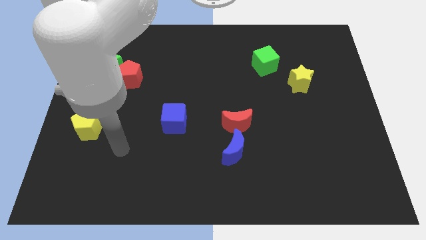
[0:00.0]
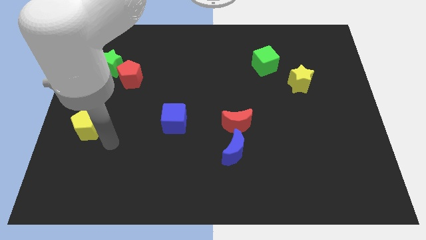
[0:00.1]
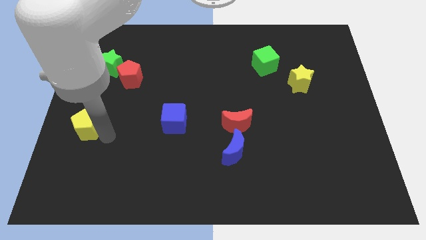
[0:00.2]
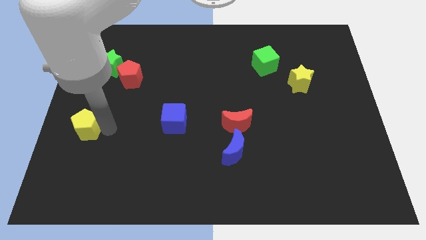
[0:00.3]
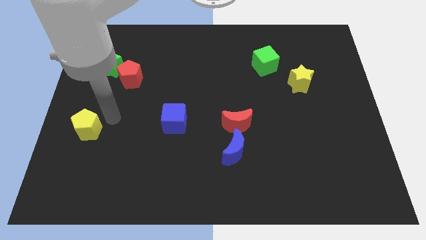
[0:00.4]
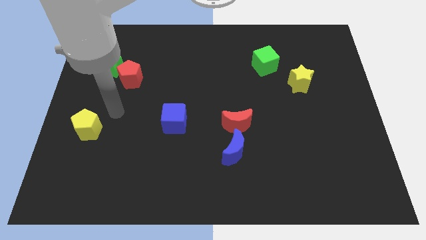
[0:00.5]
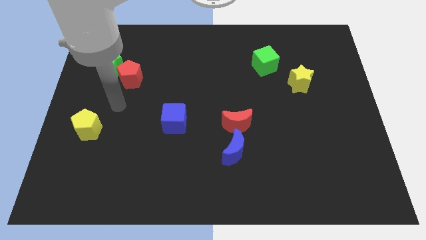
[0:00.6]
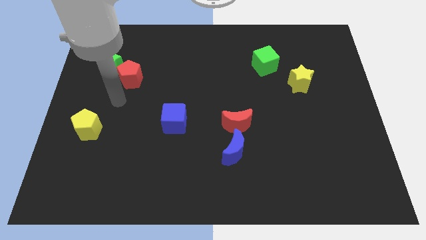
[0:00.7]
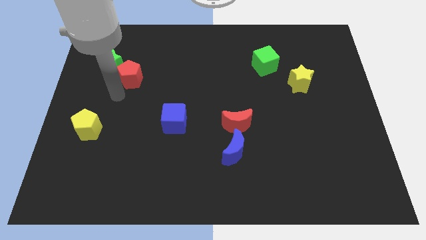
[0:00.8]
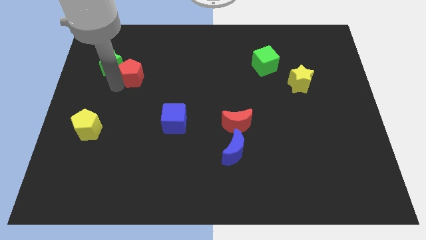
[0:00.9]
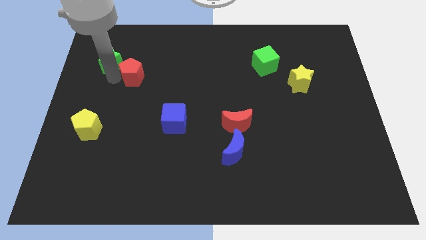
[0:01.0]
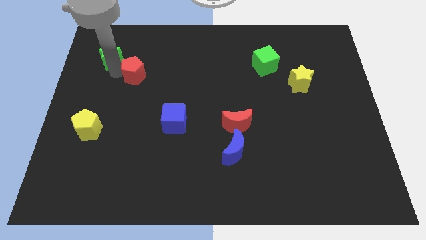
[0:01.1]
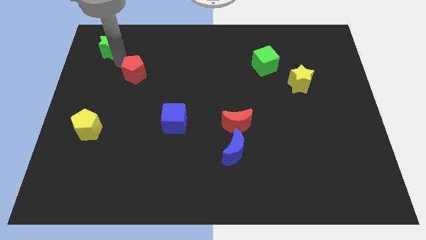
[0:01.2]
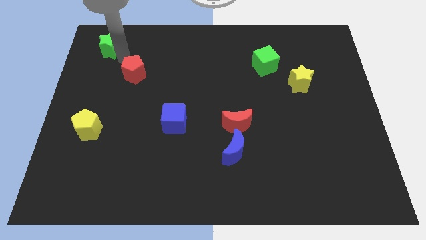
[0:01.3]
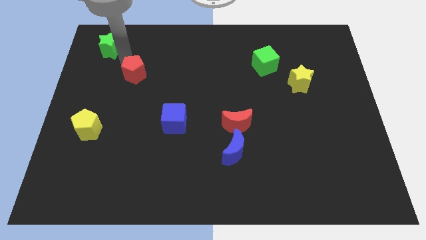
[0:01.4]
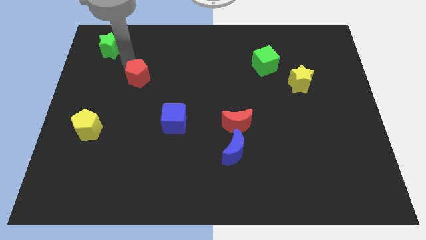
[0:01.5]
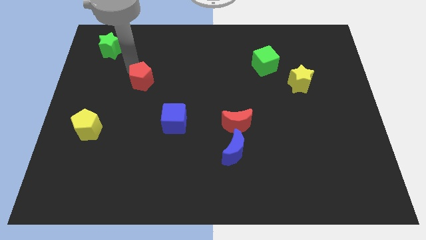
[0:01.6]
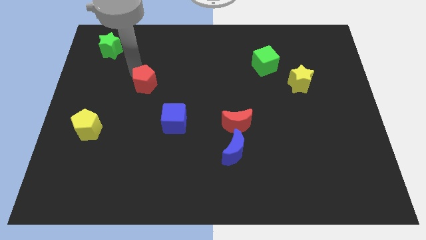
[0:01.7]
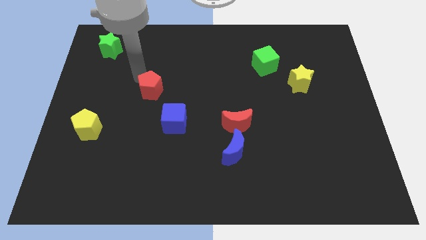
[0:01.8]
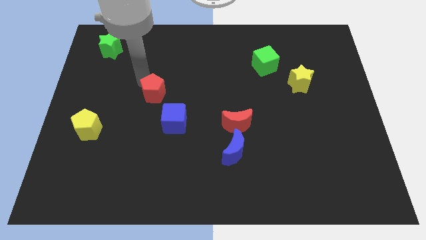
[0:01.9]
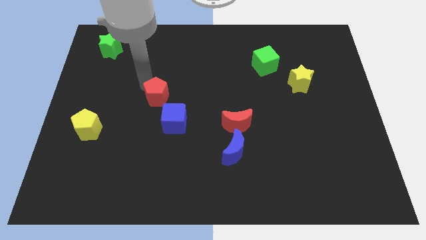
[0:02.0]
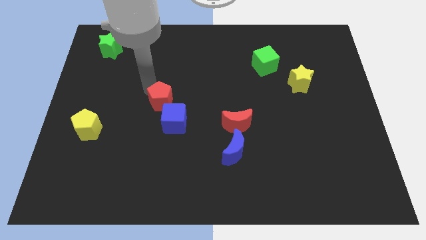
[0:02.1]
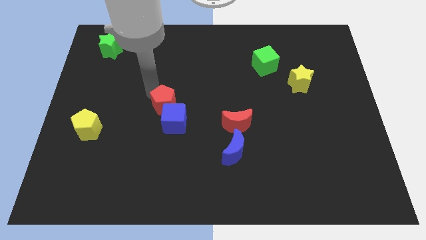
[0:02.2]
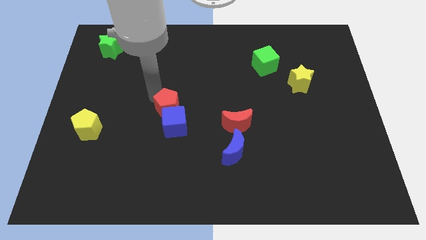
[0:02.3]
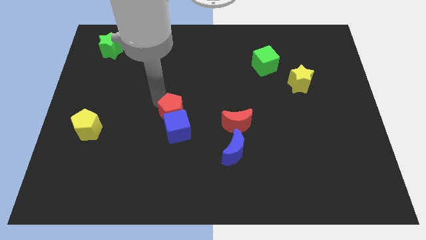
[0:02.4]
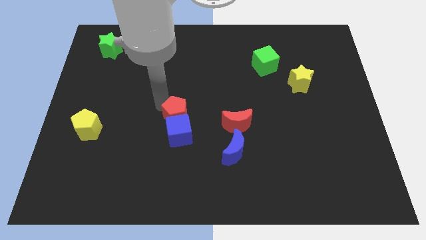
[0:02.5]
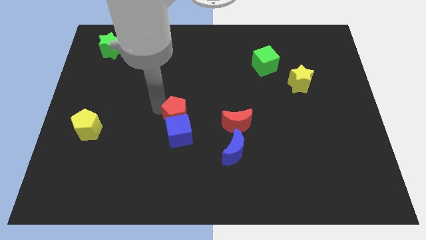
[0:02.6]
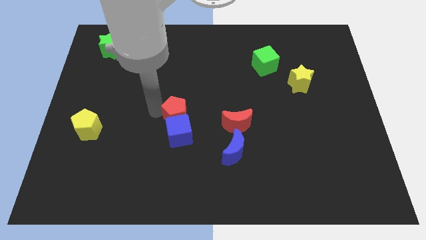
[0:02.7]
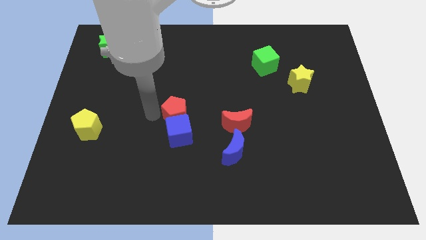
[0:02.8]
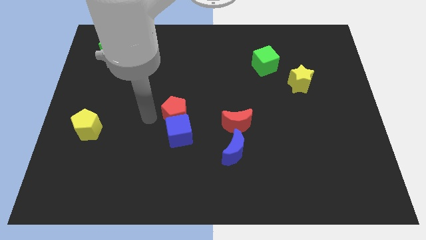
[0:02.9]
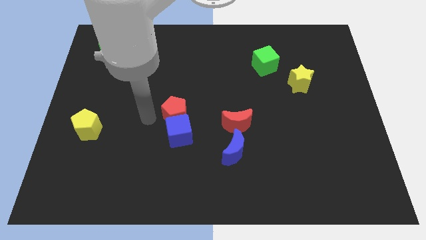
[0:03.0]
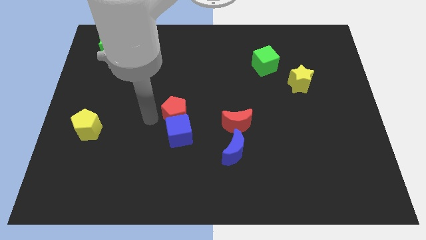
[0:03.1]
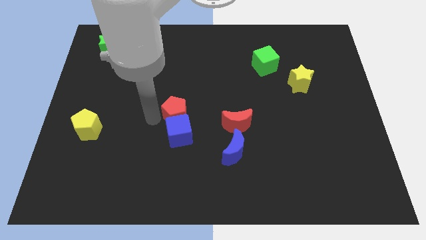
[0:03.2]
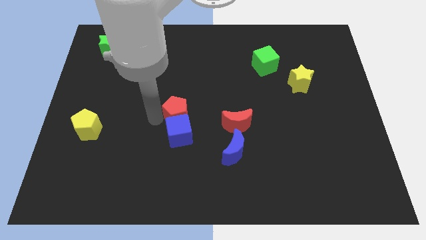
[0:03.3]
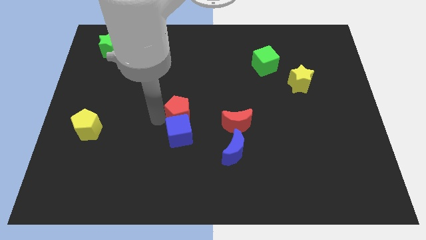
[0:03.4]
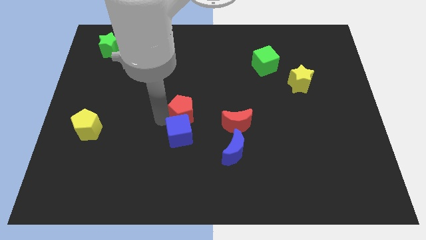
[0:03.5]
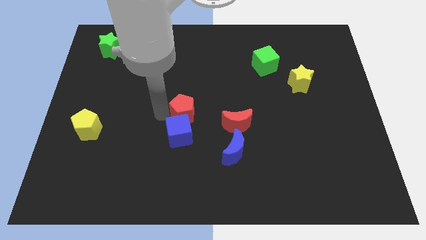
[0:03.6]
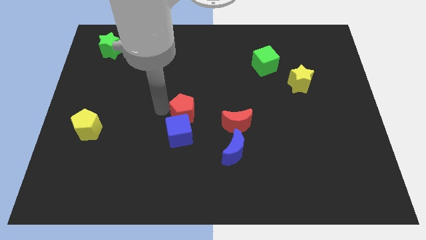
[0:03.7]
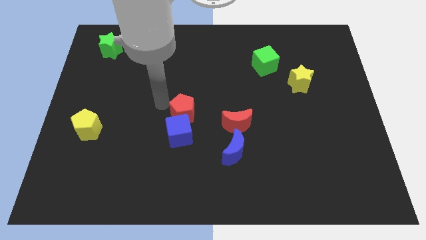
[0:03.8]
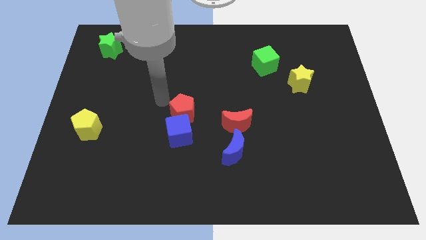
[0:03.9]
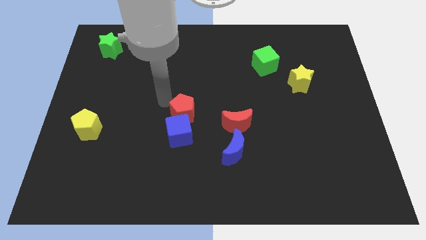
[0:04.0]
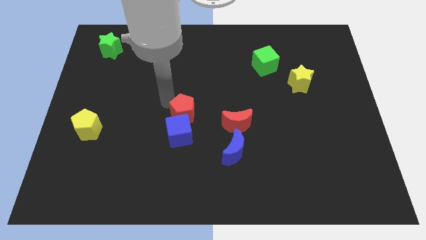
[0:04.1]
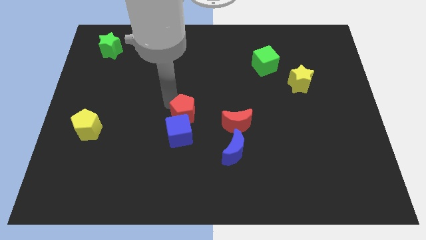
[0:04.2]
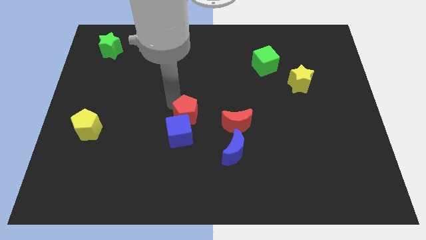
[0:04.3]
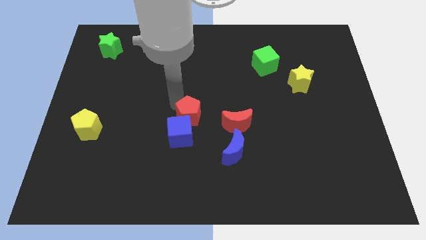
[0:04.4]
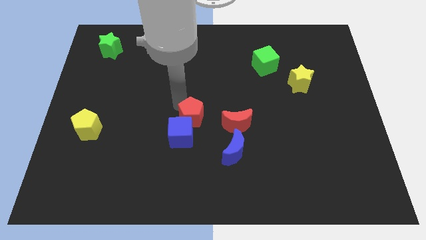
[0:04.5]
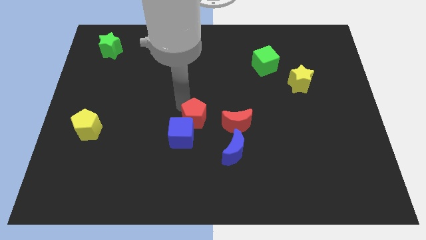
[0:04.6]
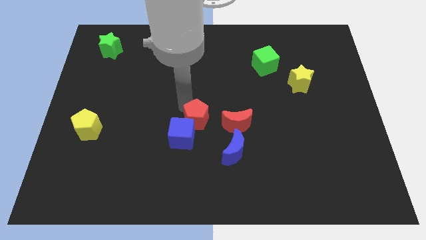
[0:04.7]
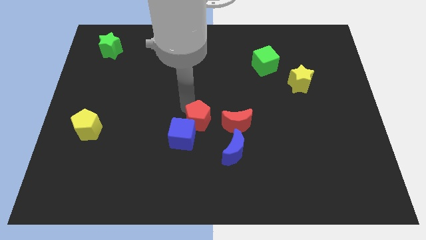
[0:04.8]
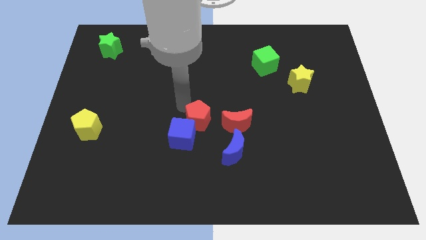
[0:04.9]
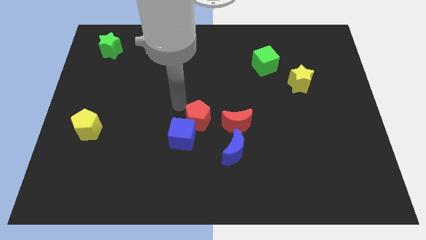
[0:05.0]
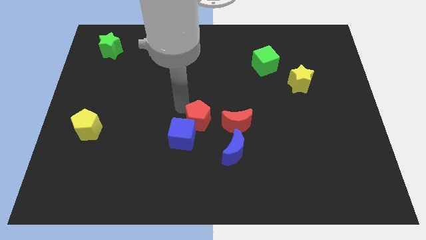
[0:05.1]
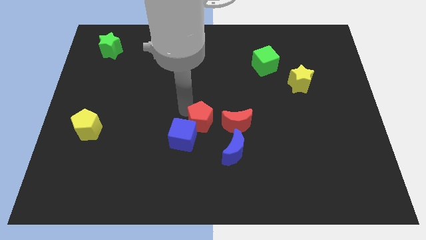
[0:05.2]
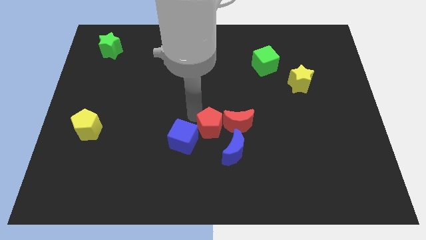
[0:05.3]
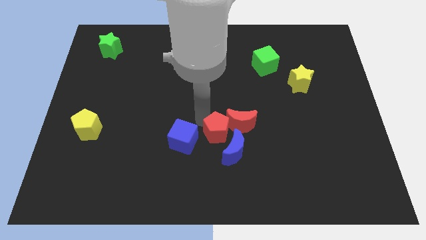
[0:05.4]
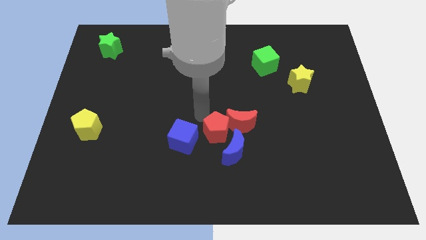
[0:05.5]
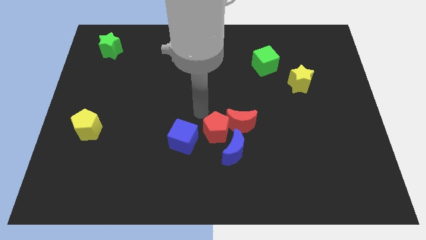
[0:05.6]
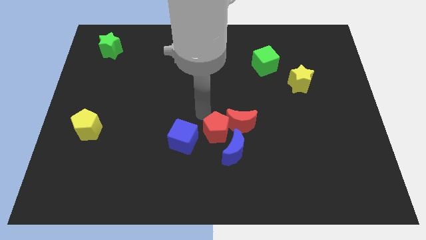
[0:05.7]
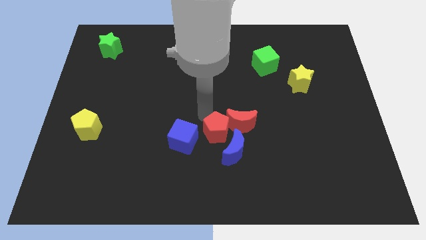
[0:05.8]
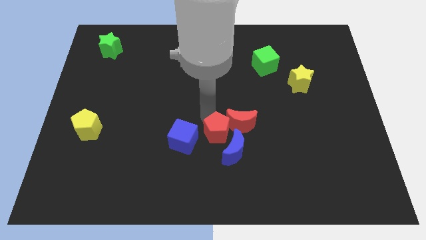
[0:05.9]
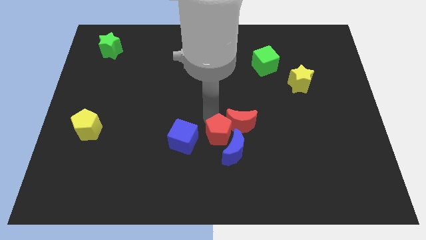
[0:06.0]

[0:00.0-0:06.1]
put the red pentagon next to the blue moon

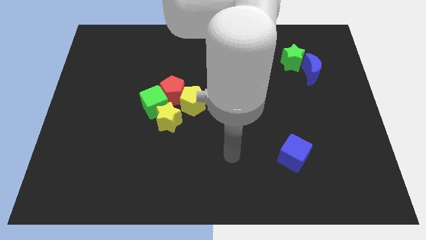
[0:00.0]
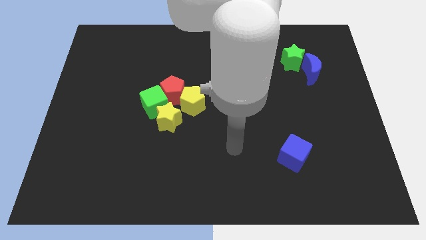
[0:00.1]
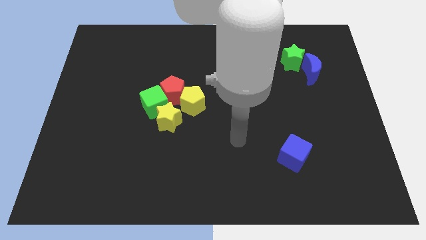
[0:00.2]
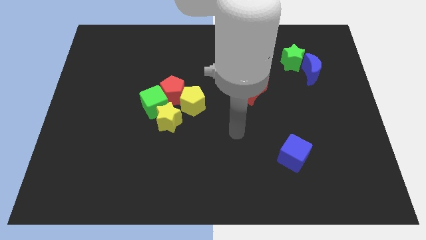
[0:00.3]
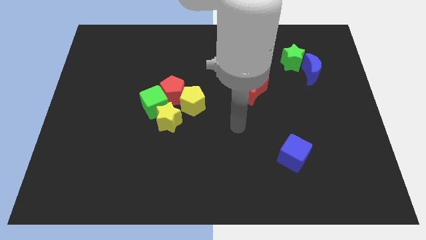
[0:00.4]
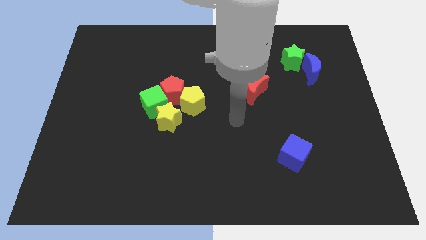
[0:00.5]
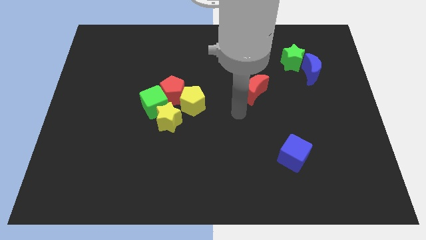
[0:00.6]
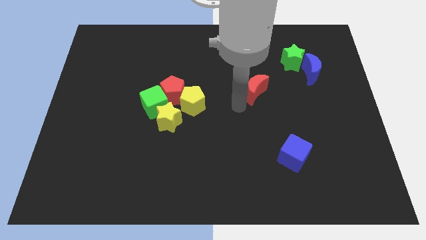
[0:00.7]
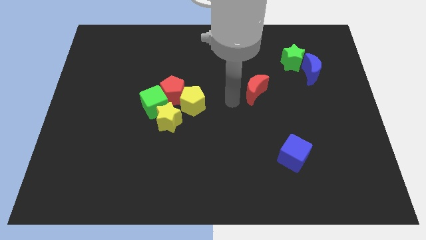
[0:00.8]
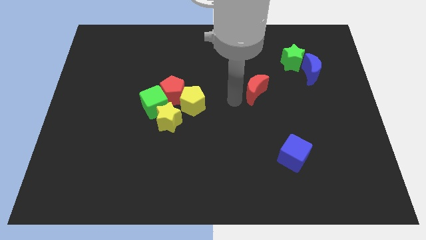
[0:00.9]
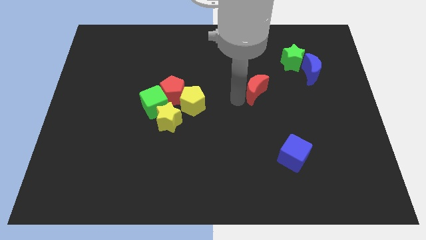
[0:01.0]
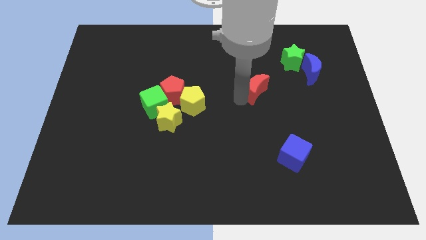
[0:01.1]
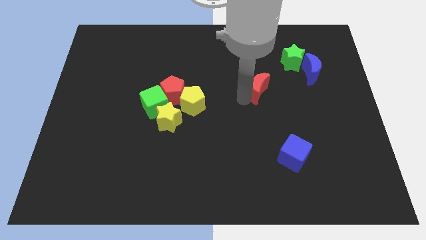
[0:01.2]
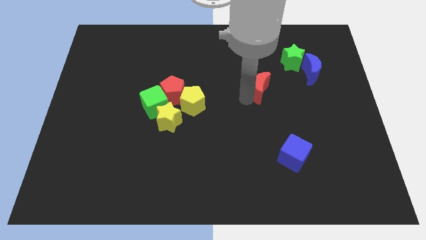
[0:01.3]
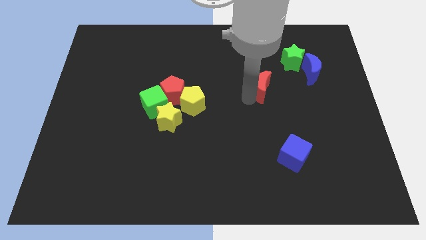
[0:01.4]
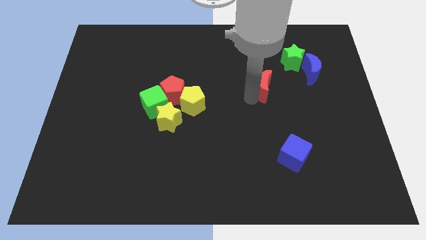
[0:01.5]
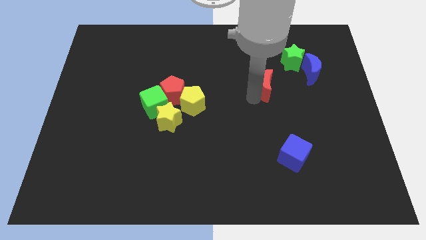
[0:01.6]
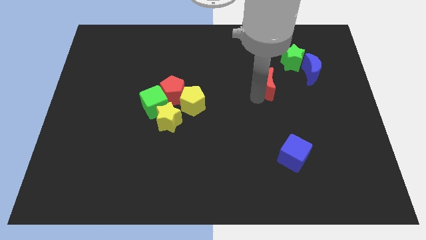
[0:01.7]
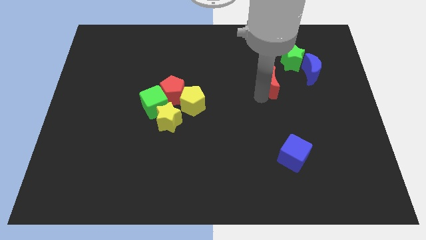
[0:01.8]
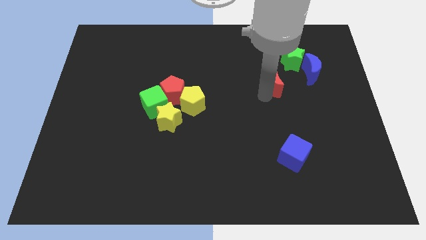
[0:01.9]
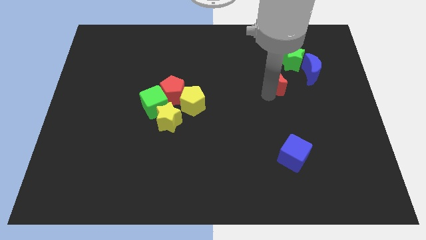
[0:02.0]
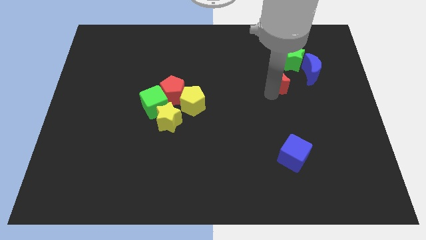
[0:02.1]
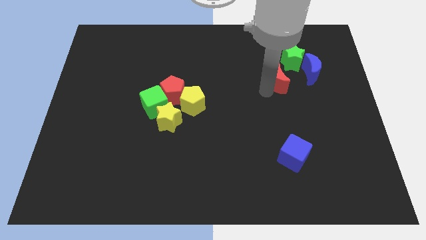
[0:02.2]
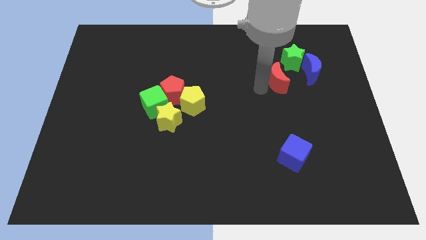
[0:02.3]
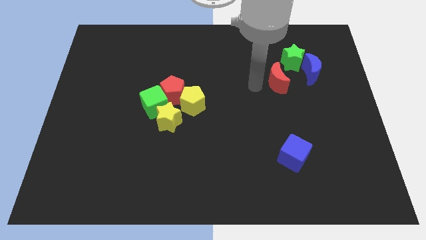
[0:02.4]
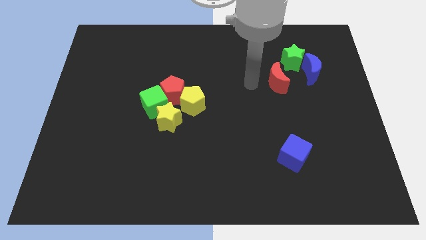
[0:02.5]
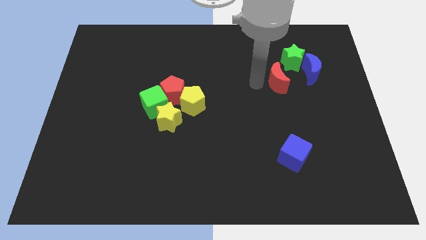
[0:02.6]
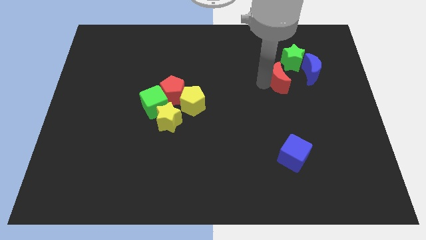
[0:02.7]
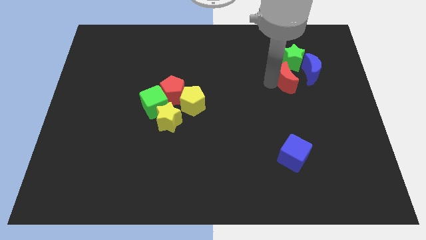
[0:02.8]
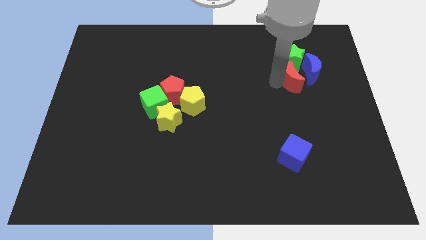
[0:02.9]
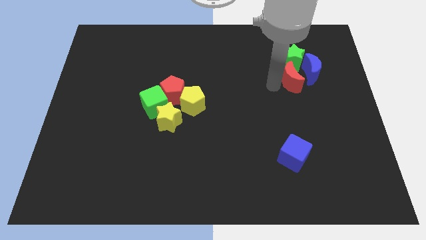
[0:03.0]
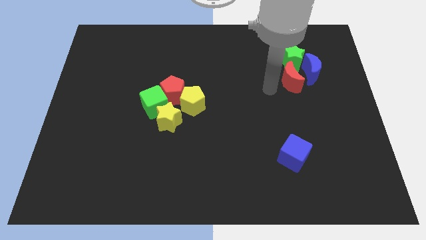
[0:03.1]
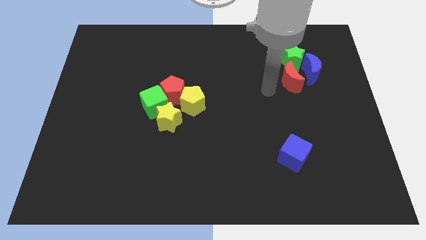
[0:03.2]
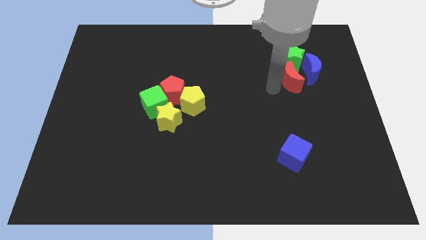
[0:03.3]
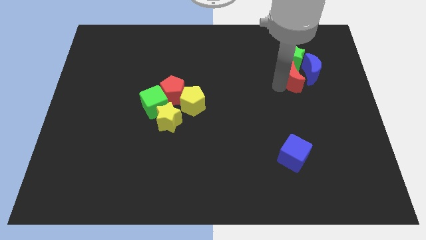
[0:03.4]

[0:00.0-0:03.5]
push the red moon to the blue moon
